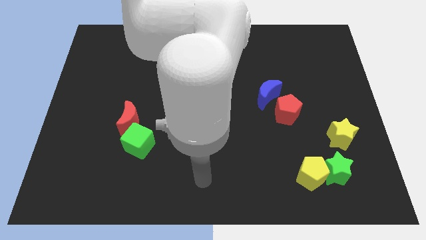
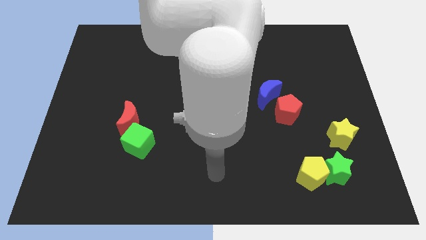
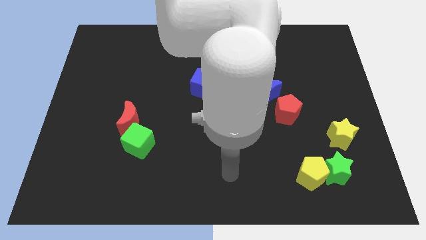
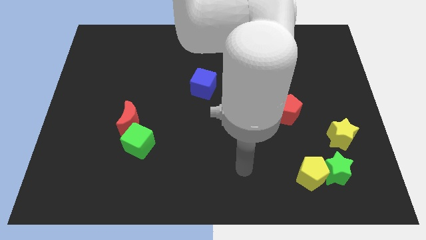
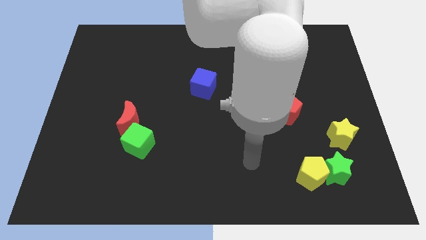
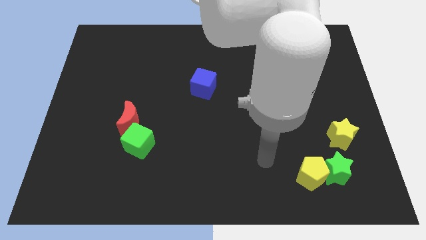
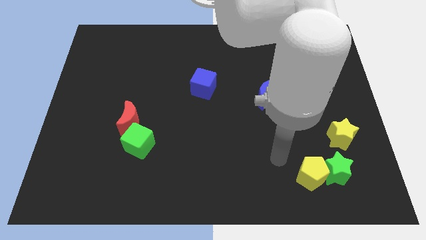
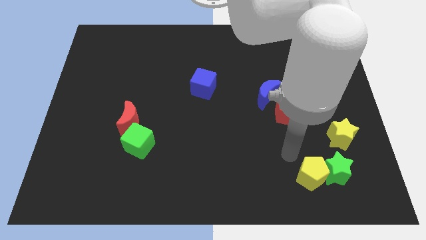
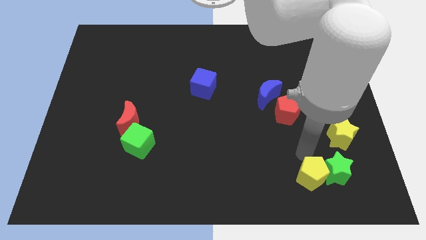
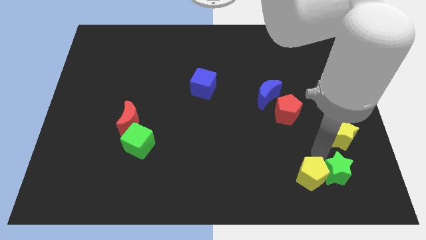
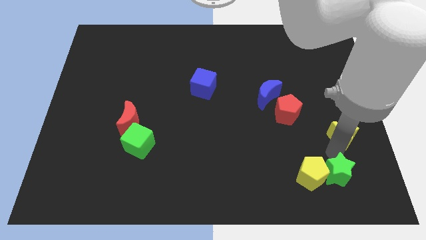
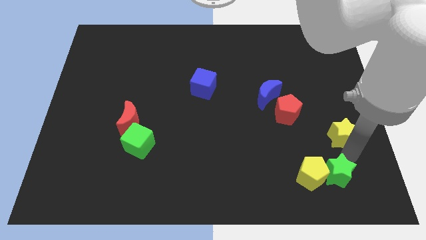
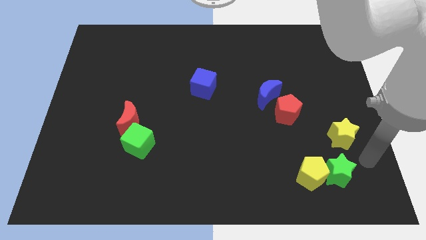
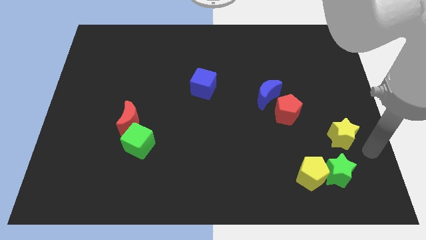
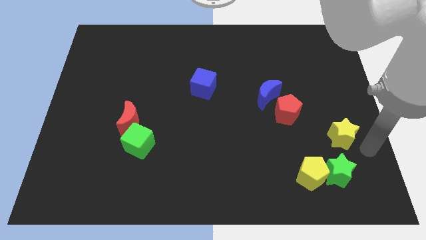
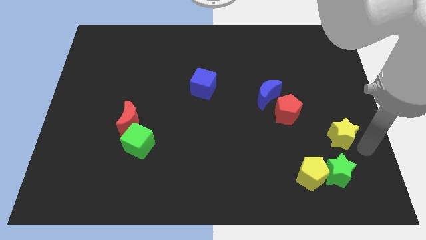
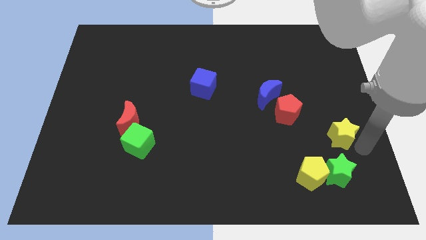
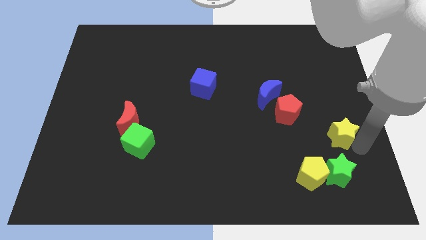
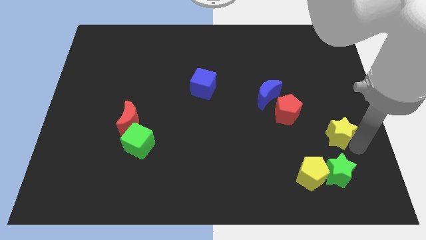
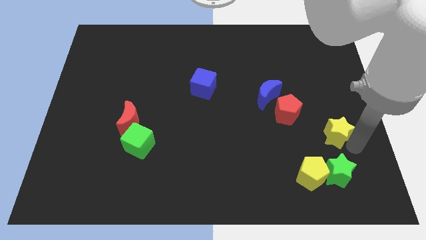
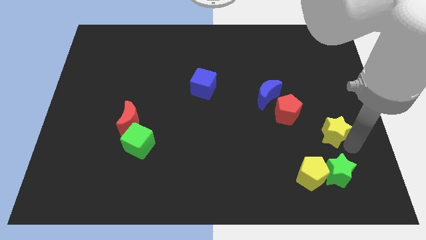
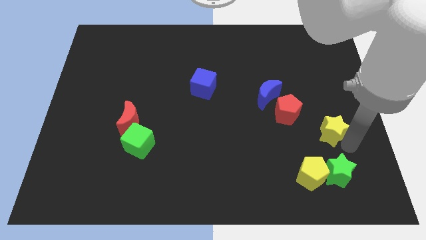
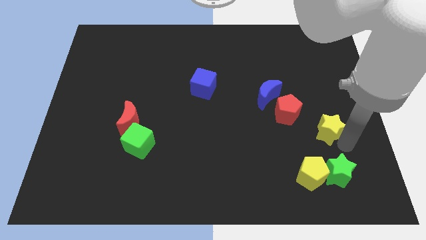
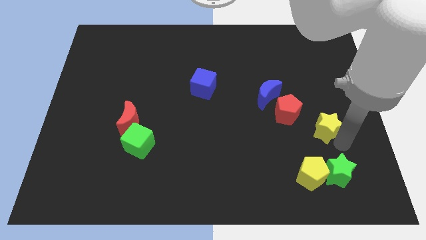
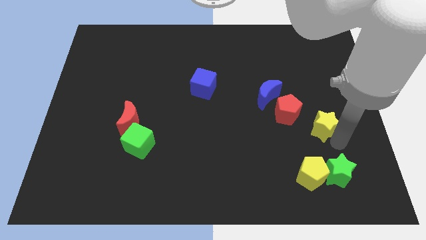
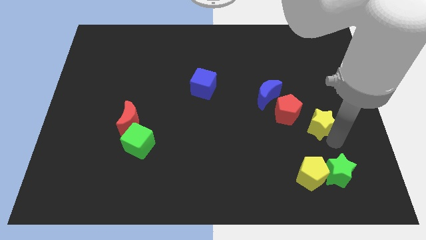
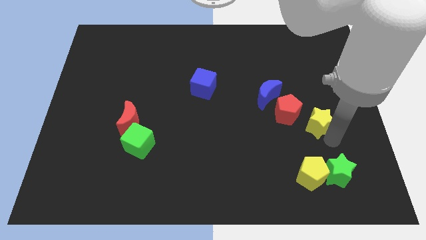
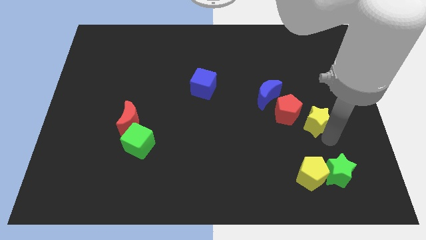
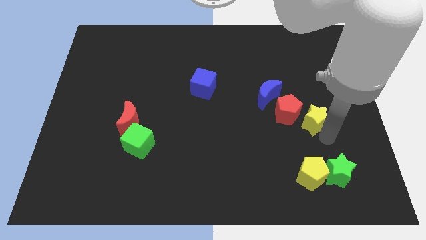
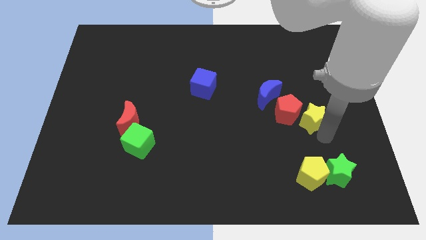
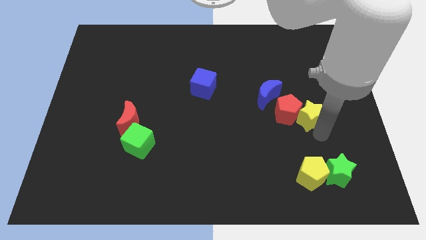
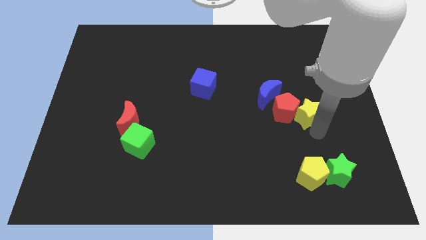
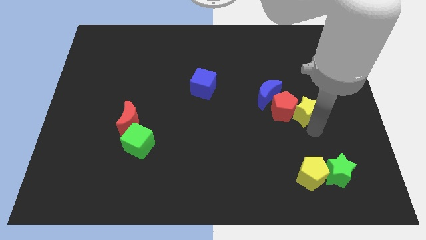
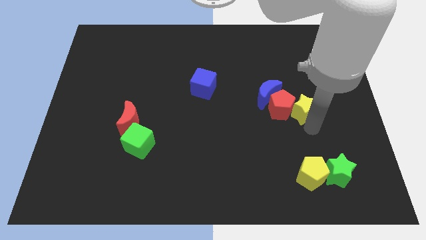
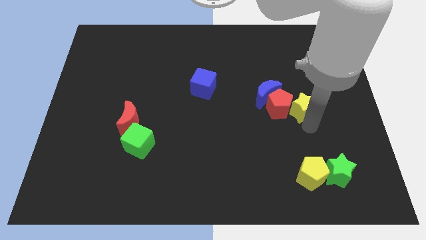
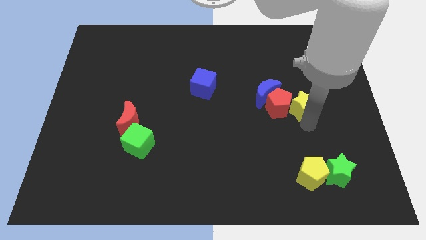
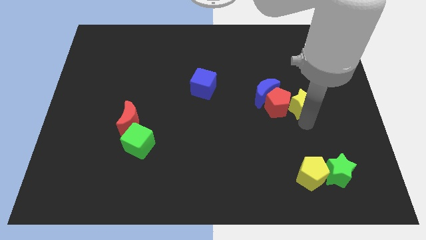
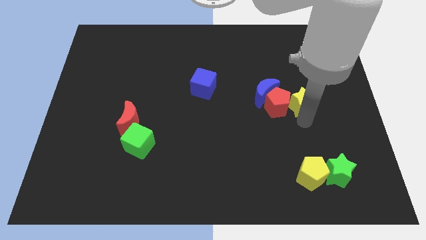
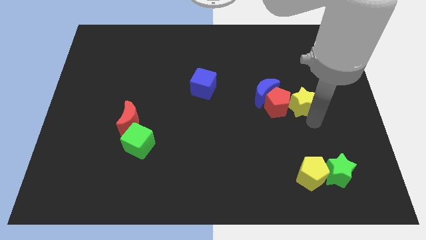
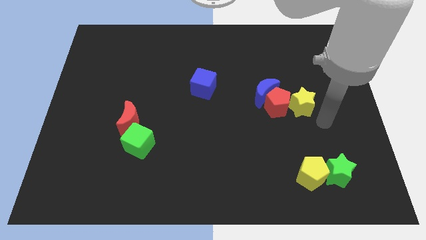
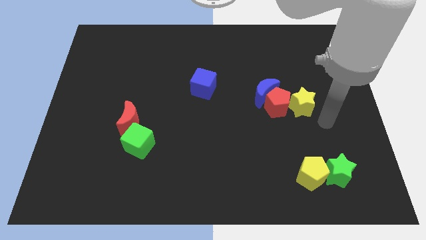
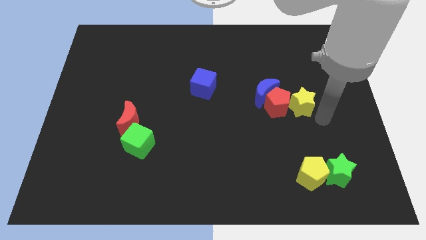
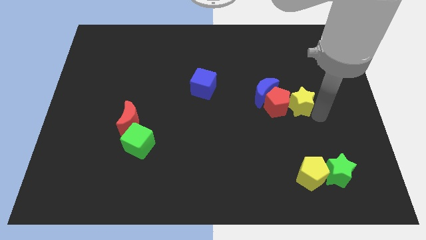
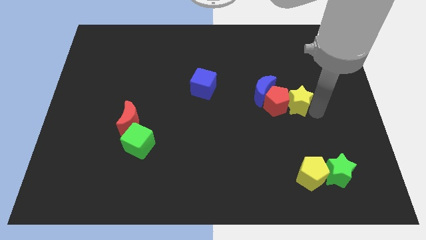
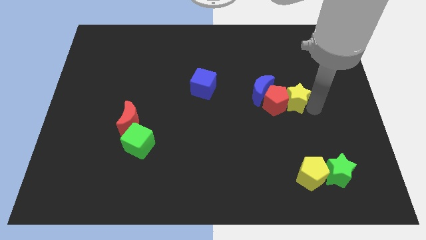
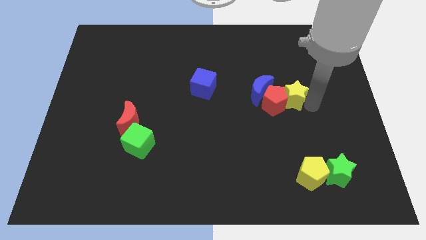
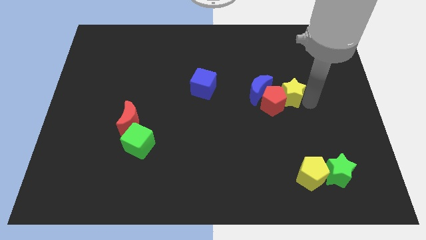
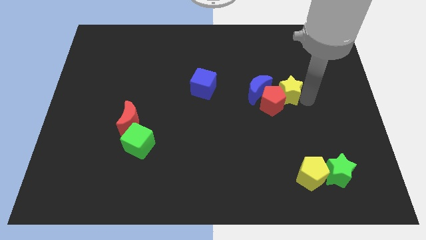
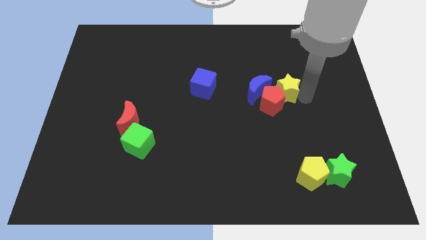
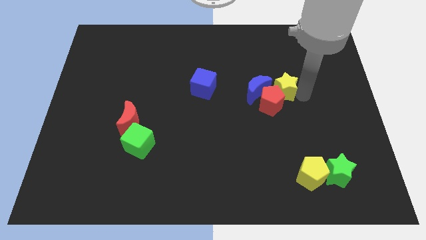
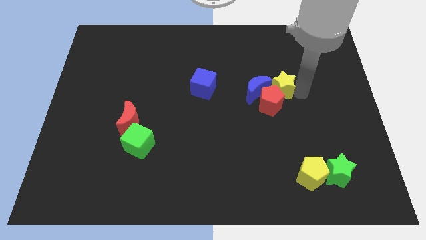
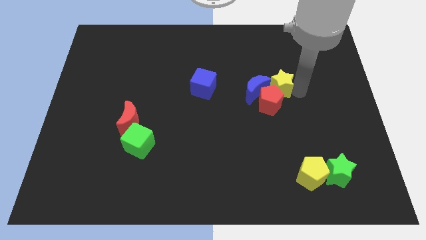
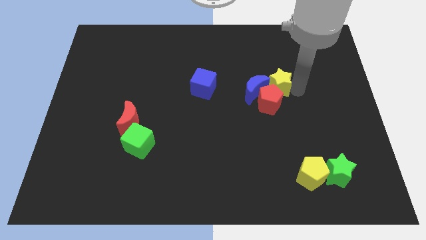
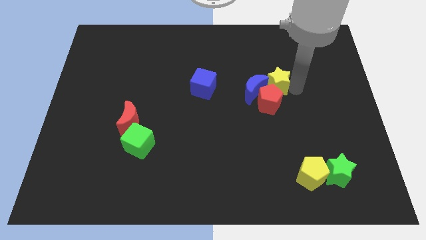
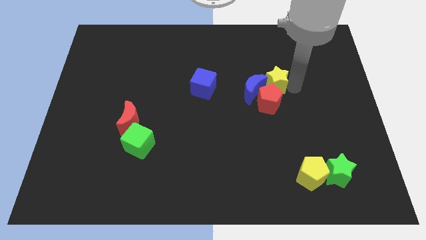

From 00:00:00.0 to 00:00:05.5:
slide the yellow star upwards and to the left diagonally

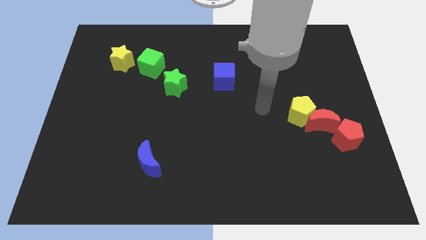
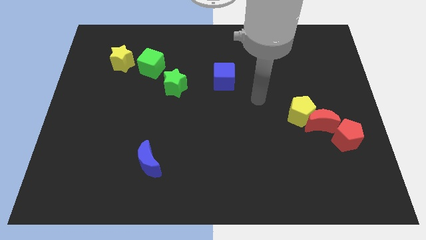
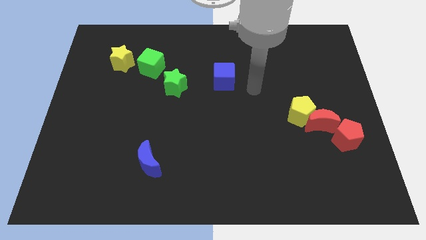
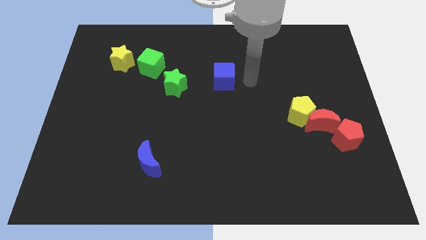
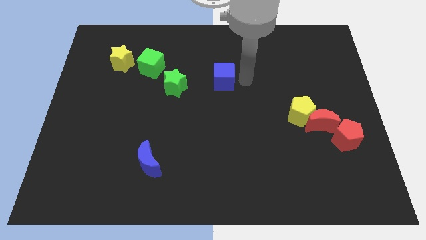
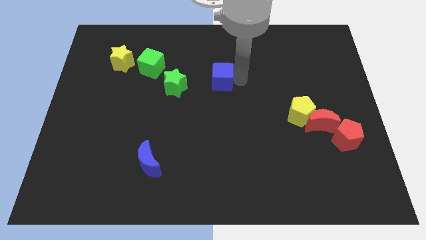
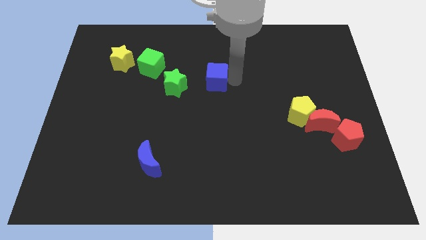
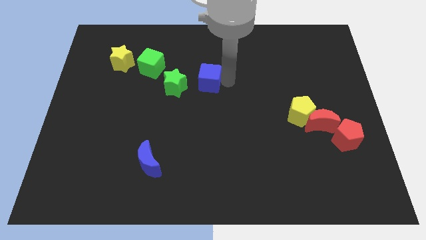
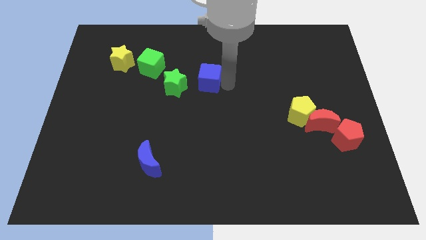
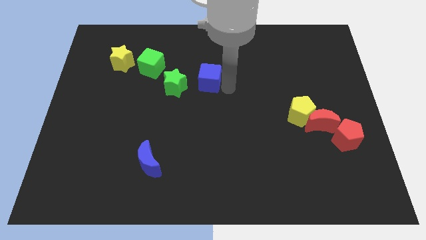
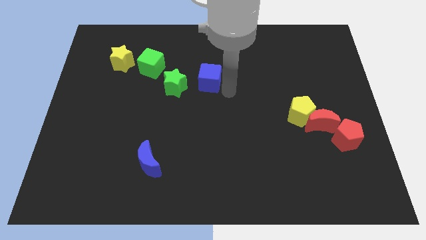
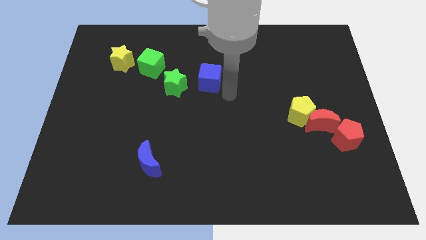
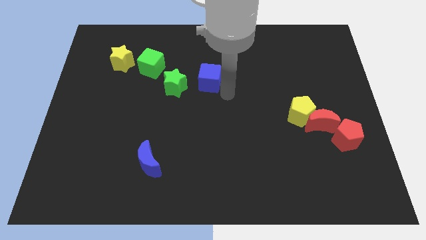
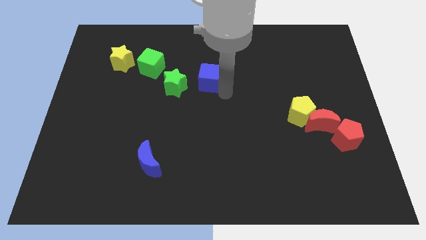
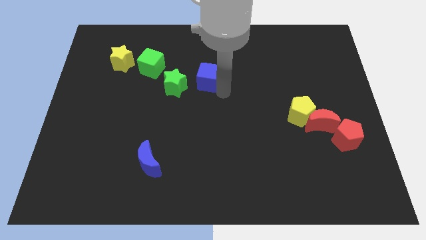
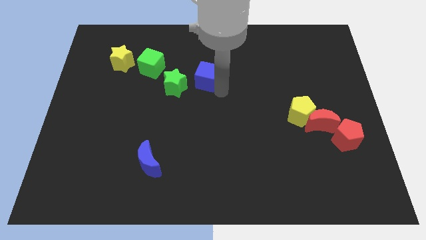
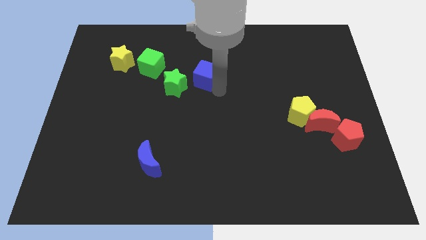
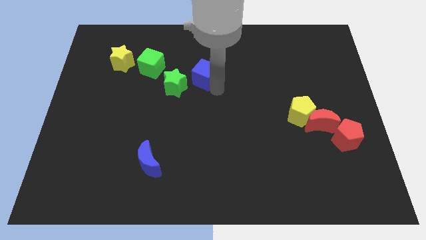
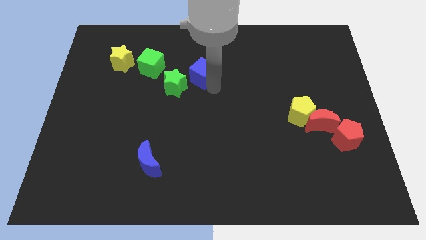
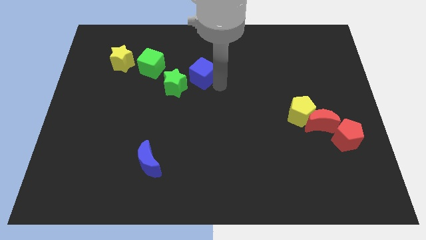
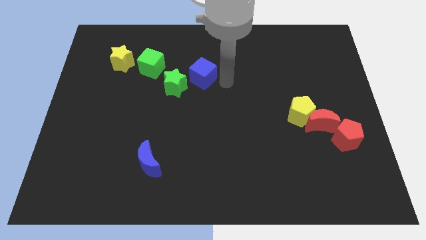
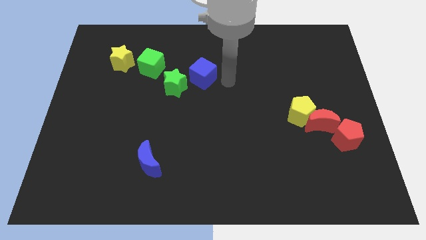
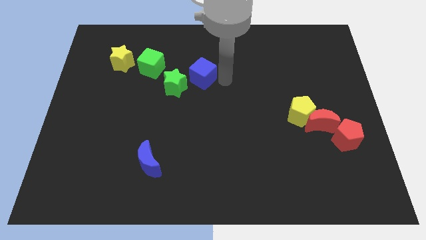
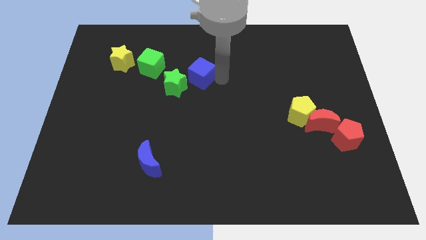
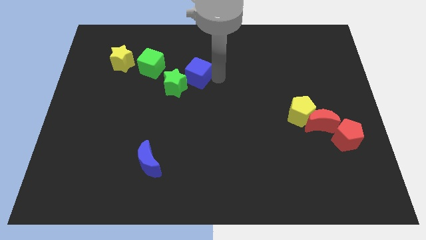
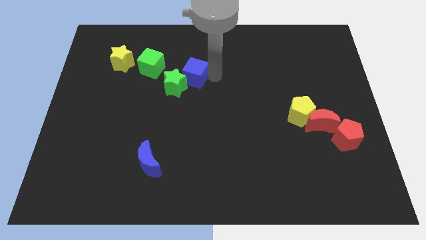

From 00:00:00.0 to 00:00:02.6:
slightly slide the blue cube to the left
